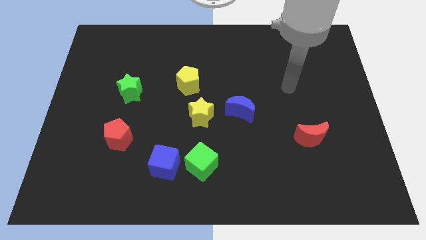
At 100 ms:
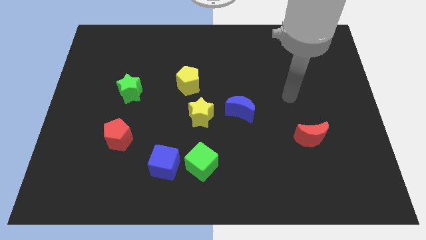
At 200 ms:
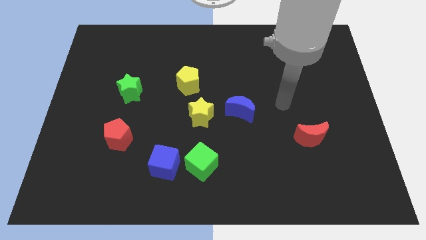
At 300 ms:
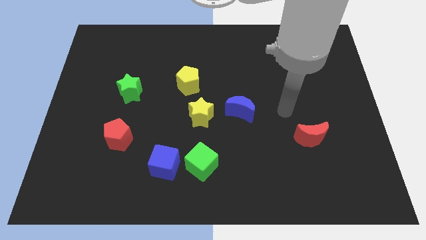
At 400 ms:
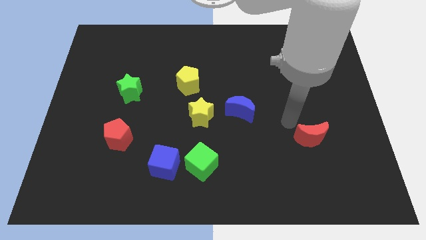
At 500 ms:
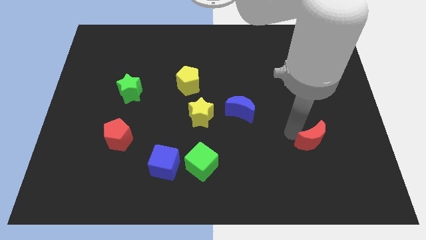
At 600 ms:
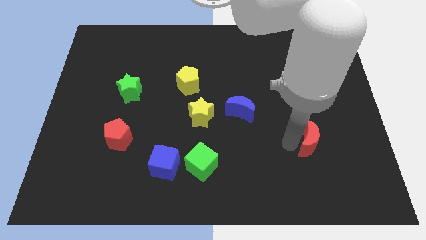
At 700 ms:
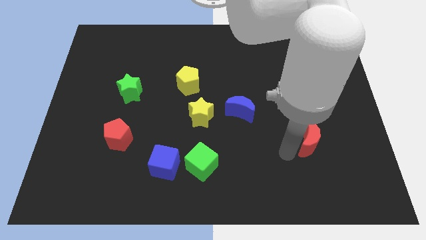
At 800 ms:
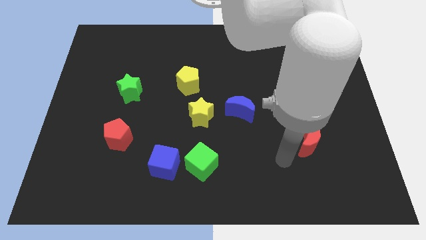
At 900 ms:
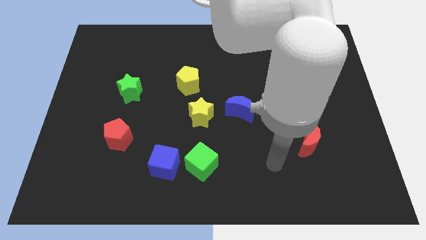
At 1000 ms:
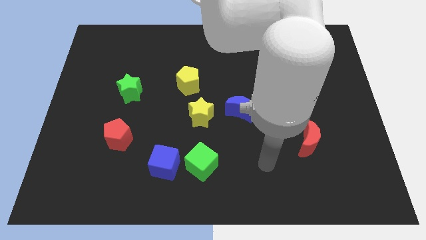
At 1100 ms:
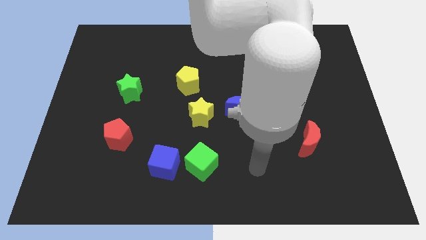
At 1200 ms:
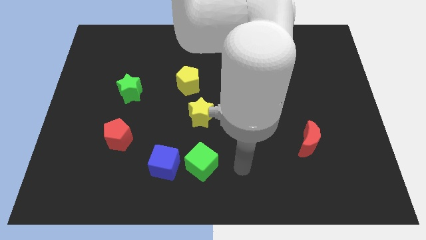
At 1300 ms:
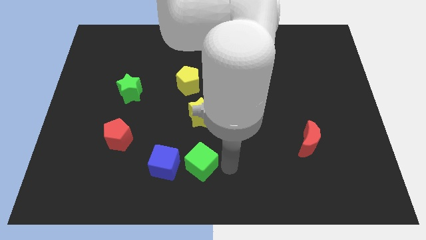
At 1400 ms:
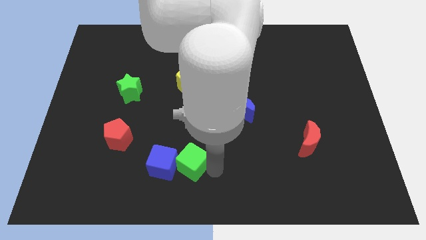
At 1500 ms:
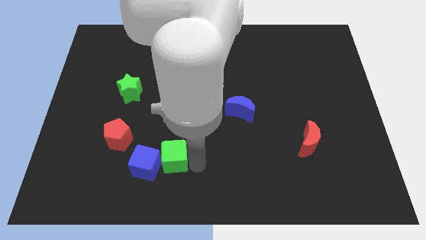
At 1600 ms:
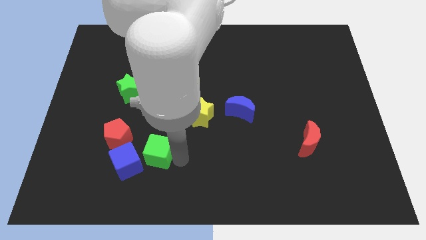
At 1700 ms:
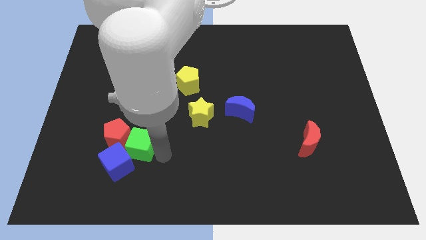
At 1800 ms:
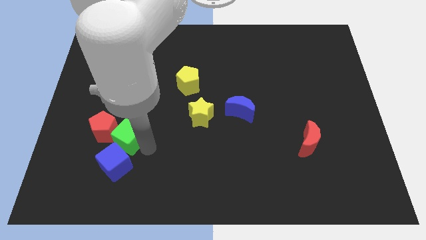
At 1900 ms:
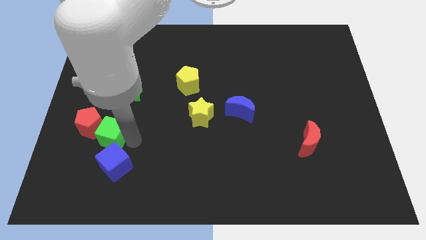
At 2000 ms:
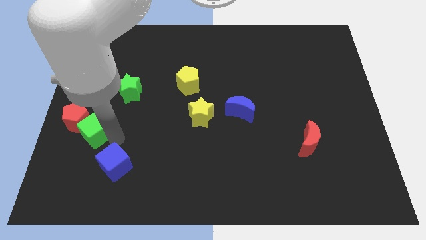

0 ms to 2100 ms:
pull the blue cube apart from the green cube

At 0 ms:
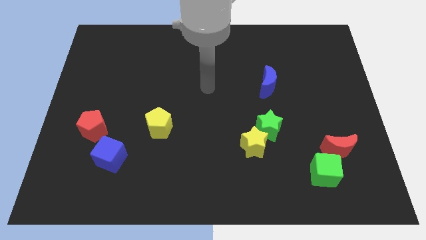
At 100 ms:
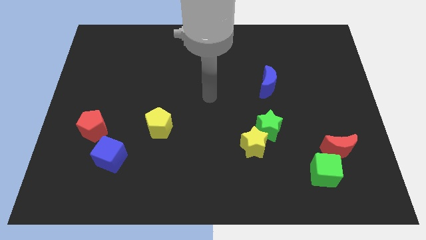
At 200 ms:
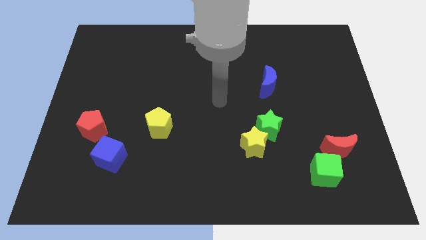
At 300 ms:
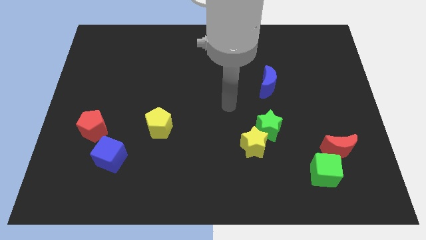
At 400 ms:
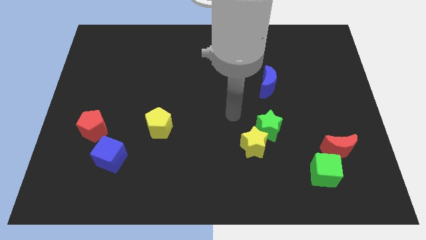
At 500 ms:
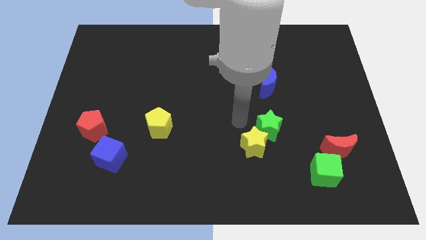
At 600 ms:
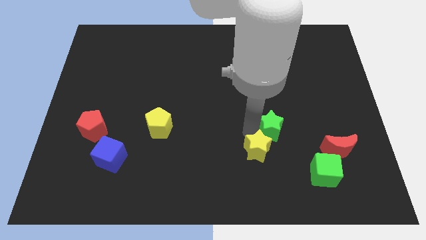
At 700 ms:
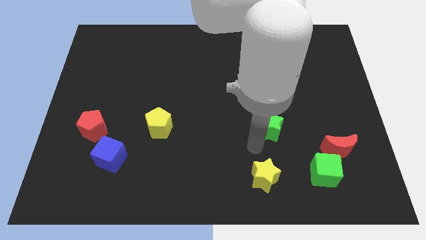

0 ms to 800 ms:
move the green star away from the yellow star

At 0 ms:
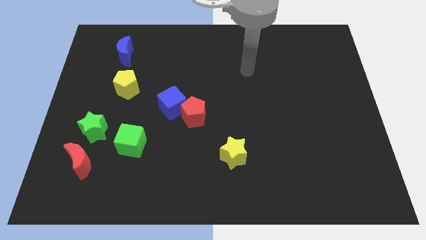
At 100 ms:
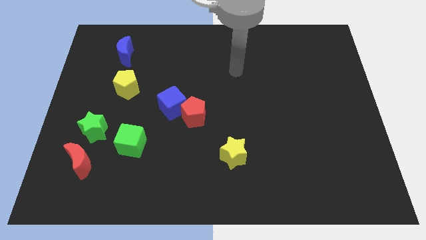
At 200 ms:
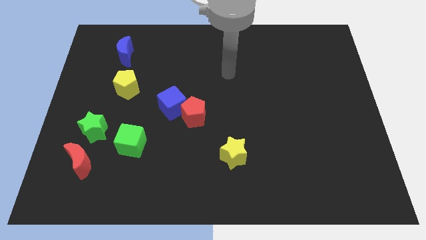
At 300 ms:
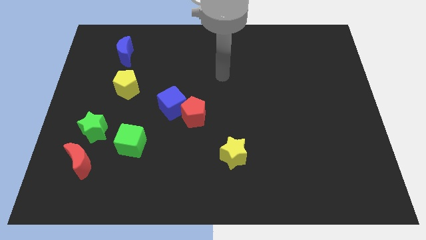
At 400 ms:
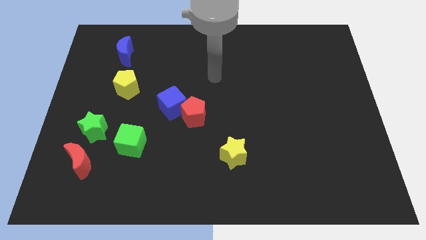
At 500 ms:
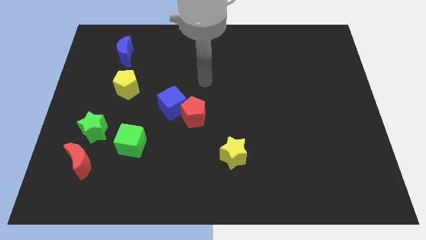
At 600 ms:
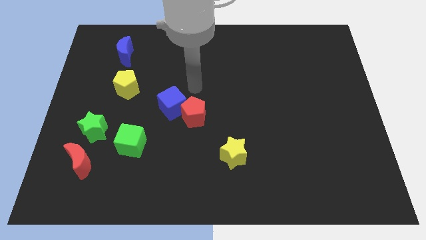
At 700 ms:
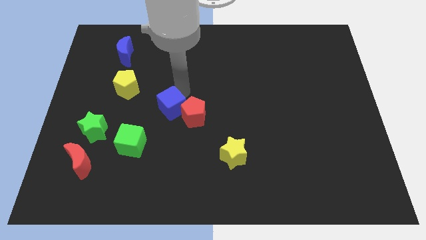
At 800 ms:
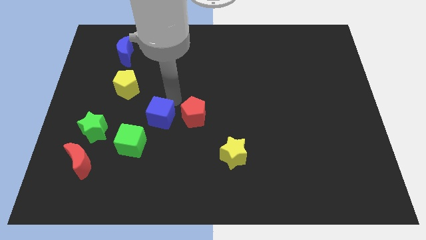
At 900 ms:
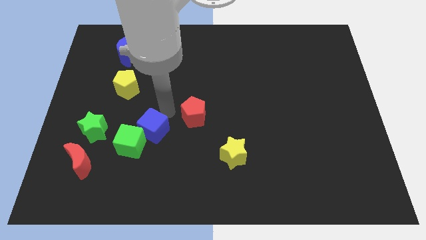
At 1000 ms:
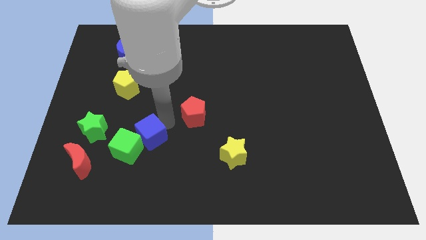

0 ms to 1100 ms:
move the red pentagon away from the blue cube

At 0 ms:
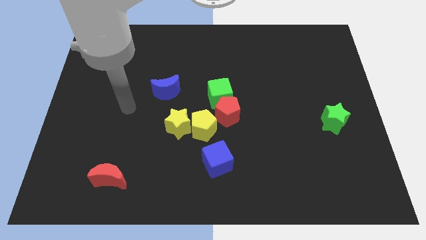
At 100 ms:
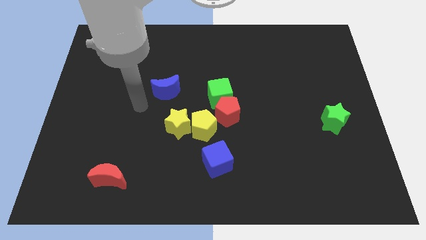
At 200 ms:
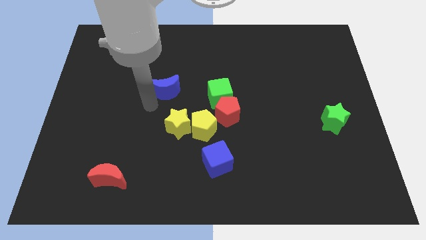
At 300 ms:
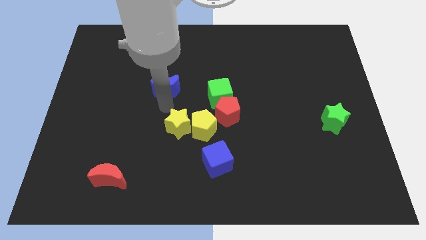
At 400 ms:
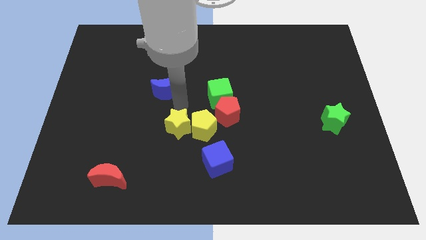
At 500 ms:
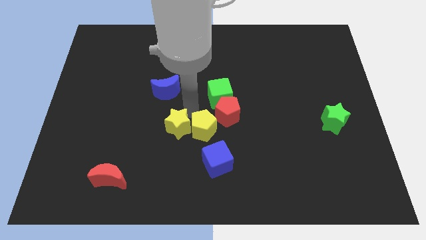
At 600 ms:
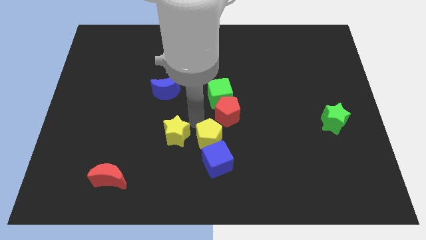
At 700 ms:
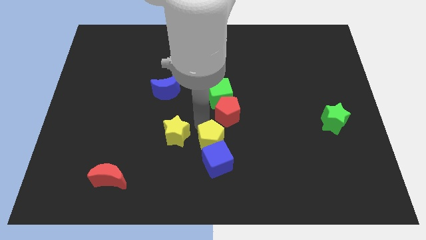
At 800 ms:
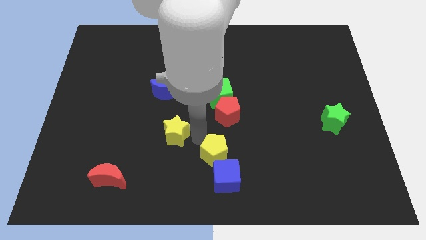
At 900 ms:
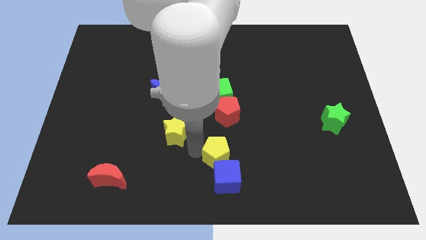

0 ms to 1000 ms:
pull the yellow star apart from the yellow pentagon

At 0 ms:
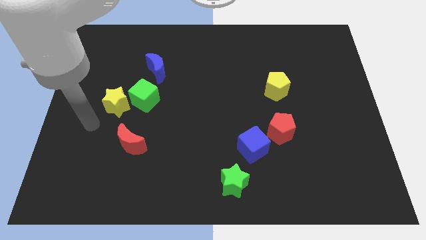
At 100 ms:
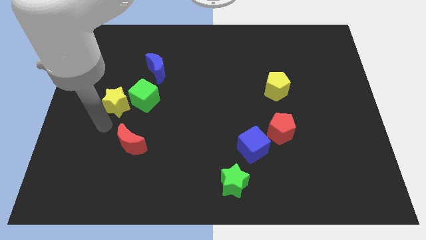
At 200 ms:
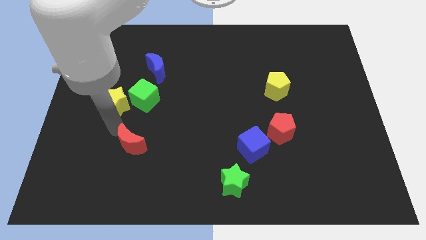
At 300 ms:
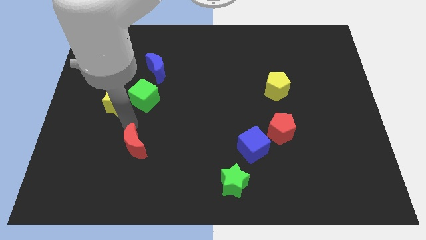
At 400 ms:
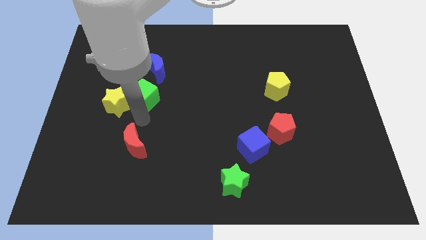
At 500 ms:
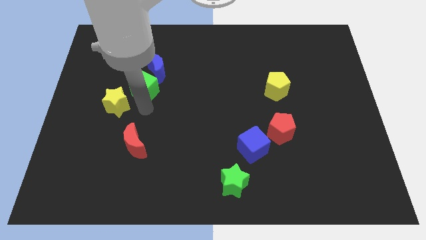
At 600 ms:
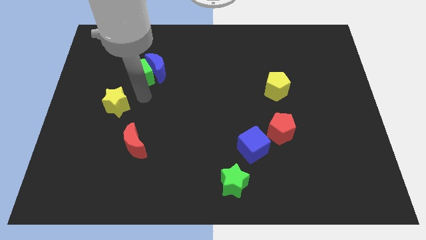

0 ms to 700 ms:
move the yellow star away from the green cube

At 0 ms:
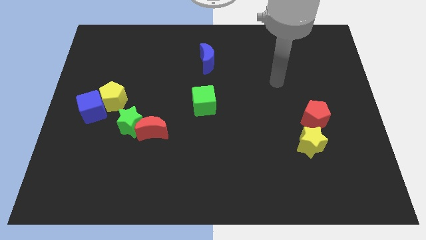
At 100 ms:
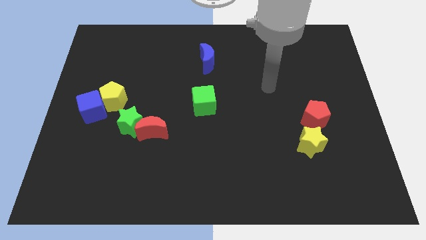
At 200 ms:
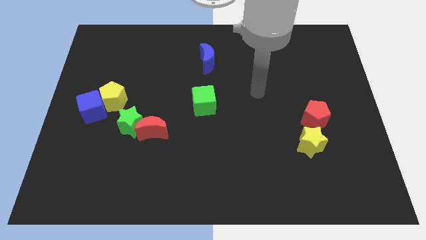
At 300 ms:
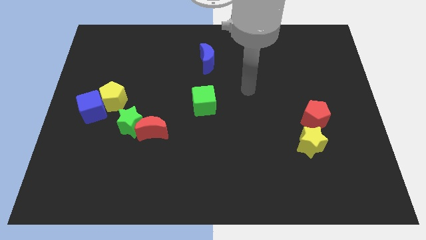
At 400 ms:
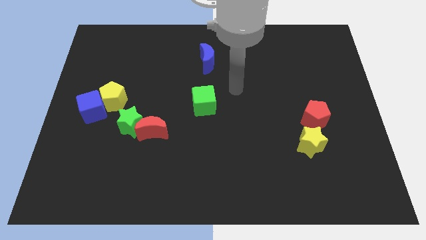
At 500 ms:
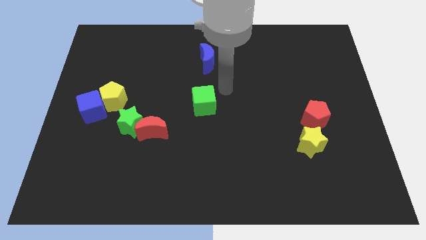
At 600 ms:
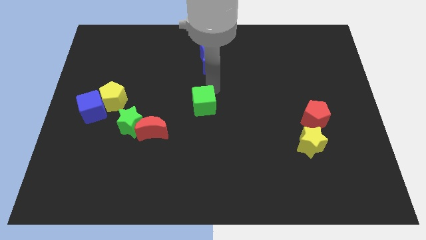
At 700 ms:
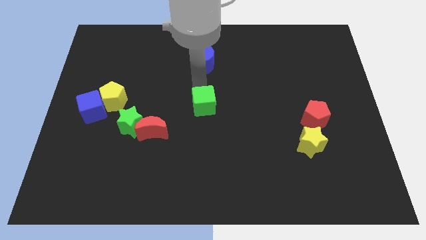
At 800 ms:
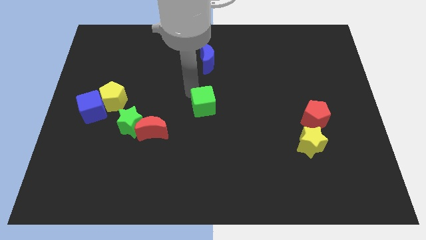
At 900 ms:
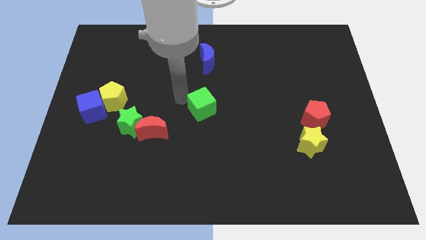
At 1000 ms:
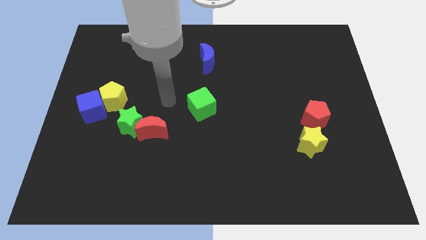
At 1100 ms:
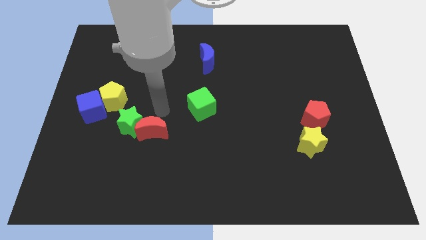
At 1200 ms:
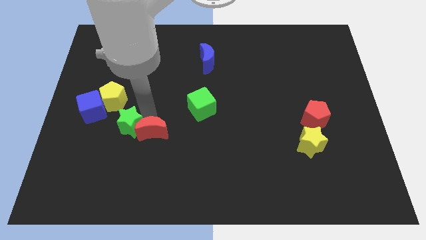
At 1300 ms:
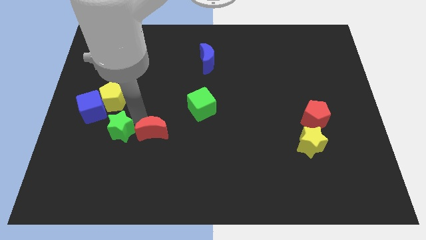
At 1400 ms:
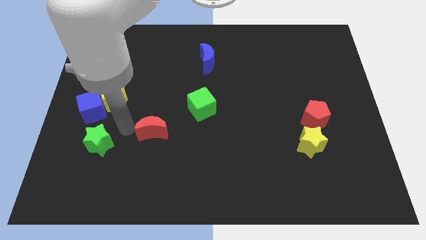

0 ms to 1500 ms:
pull the red moon apart from the green star

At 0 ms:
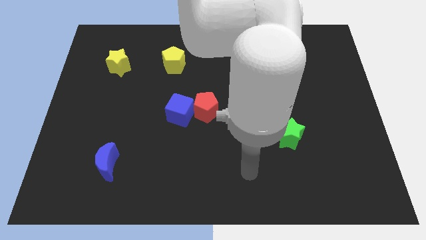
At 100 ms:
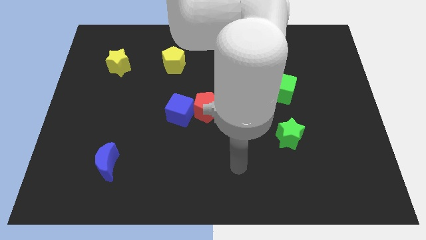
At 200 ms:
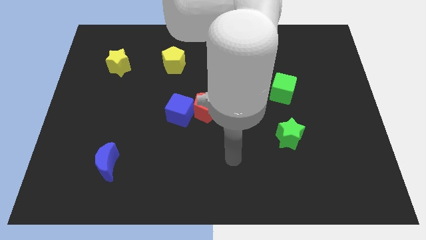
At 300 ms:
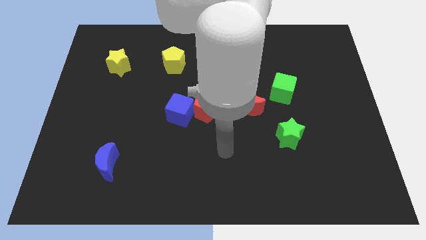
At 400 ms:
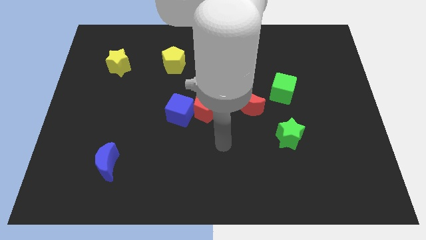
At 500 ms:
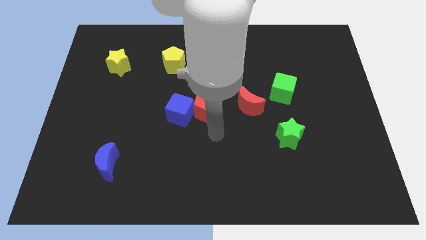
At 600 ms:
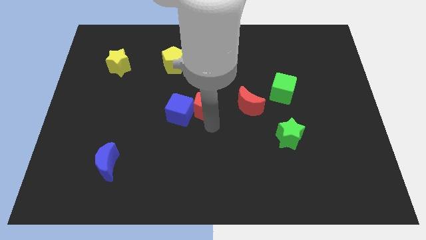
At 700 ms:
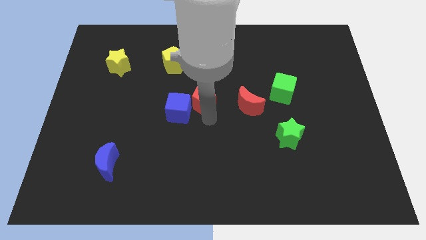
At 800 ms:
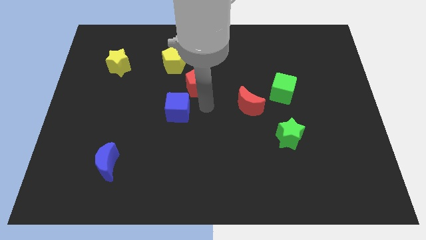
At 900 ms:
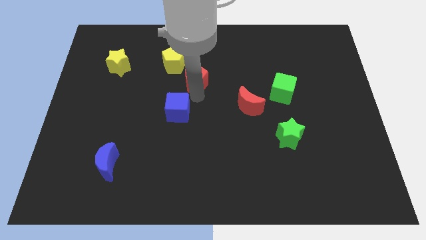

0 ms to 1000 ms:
separate the blue cube from the red pentagon

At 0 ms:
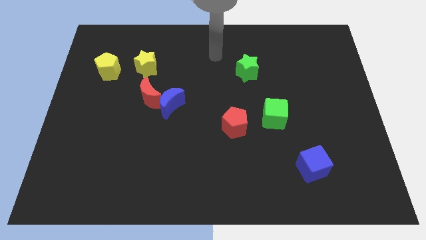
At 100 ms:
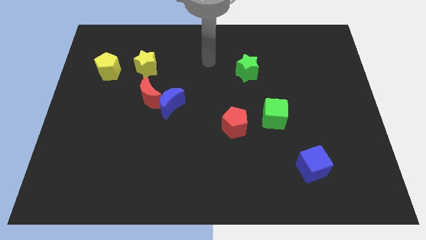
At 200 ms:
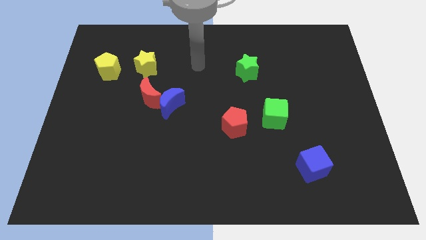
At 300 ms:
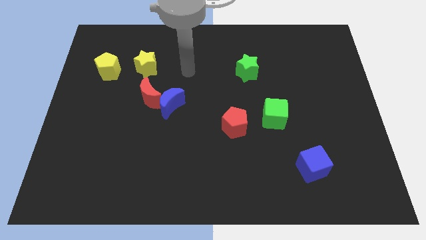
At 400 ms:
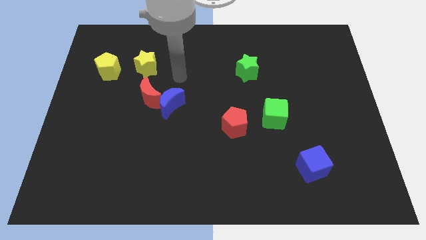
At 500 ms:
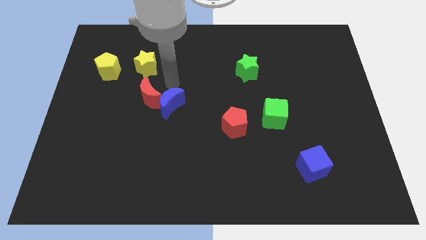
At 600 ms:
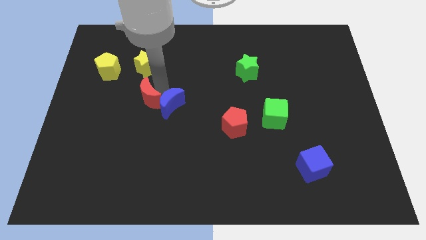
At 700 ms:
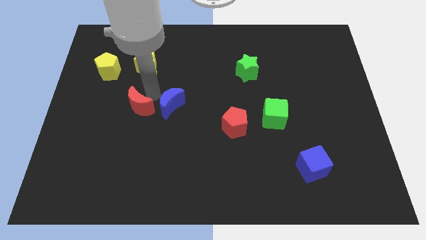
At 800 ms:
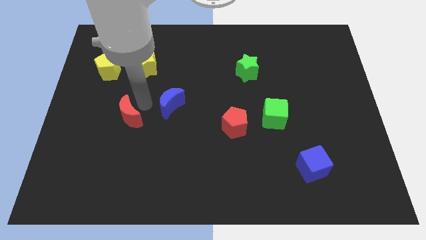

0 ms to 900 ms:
separate the blue moon from the red moon
